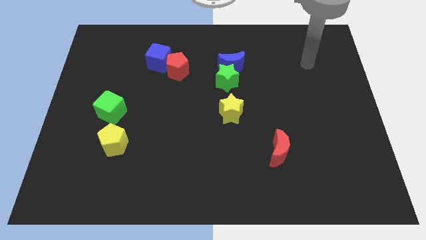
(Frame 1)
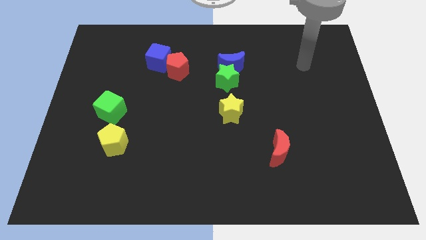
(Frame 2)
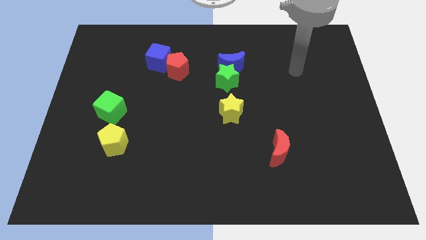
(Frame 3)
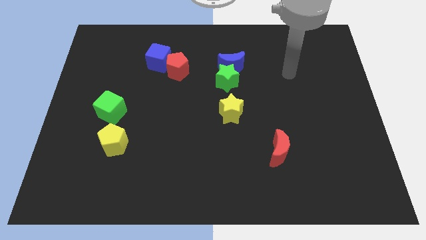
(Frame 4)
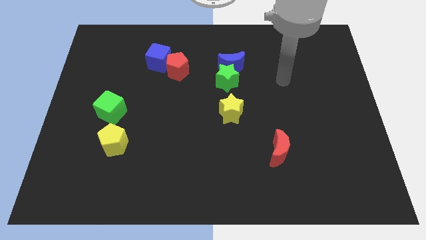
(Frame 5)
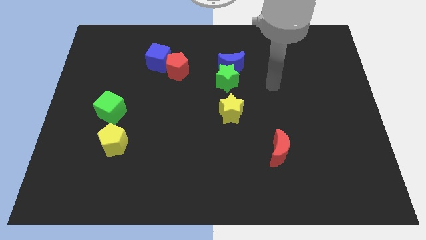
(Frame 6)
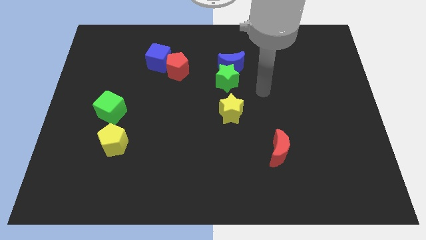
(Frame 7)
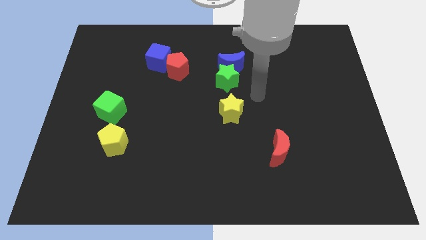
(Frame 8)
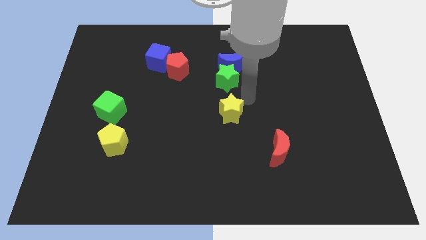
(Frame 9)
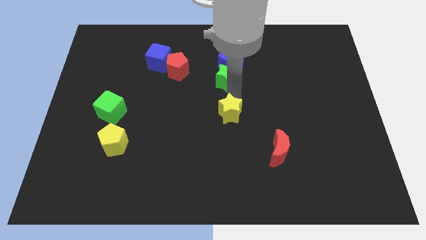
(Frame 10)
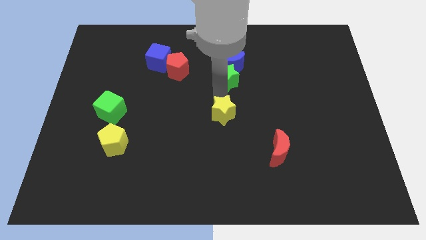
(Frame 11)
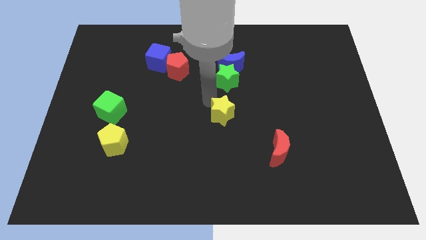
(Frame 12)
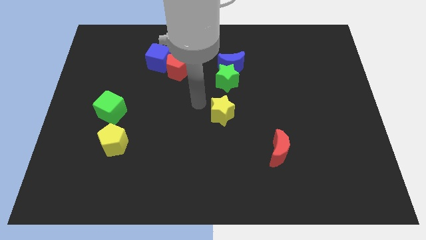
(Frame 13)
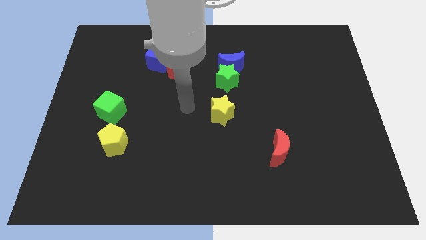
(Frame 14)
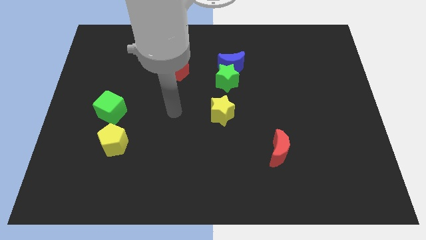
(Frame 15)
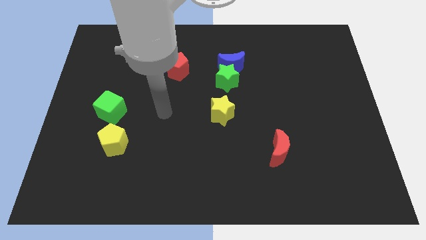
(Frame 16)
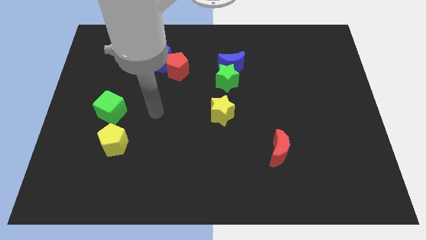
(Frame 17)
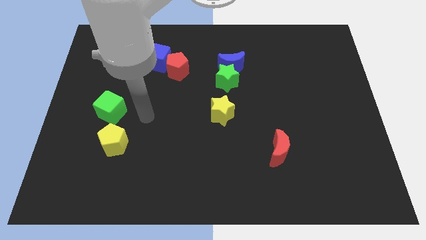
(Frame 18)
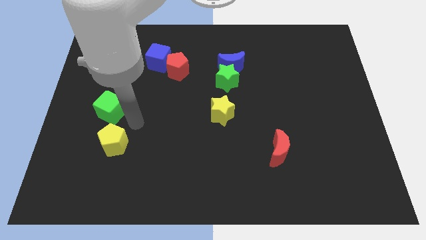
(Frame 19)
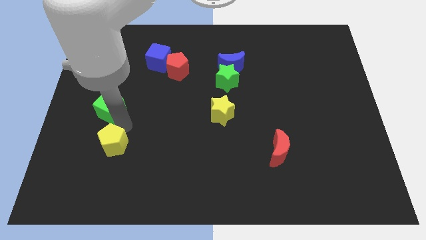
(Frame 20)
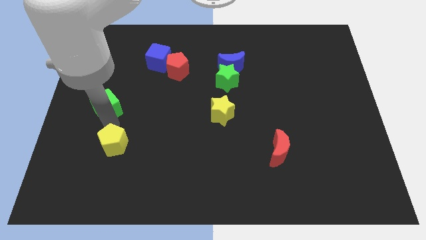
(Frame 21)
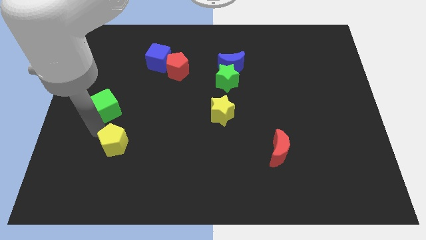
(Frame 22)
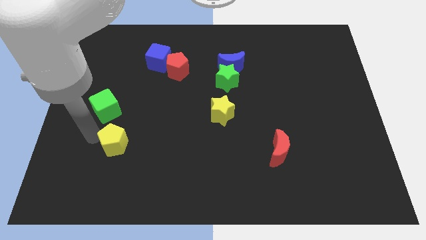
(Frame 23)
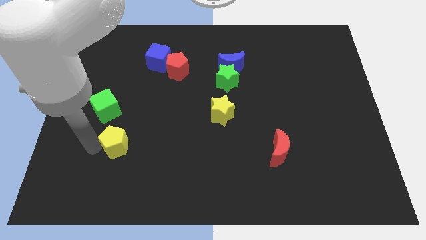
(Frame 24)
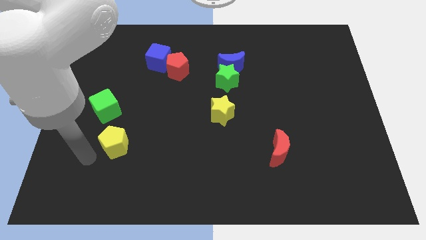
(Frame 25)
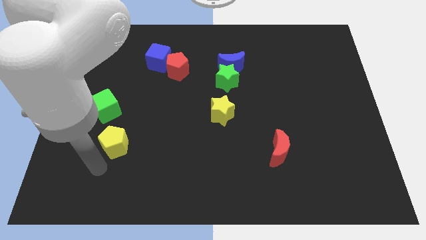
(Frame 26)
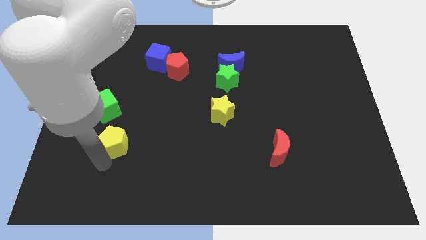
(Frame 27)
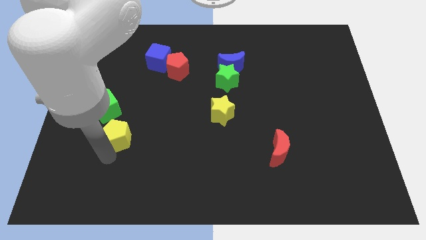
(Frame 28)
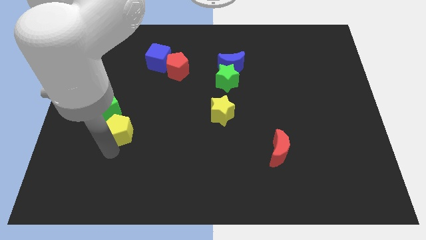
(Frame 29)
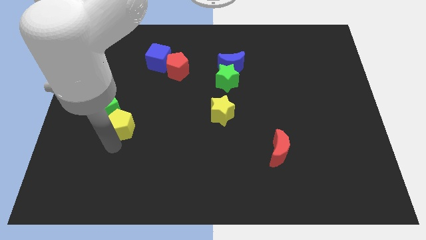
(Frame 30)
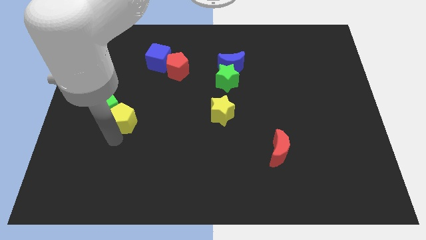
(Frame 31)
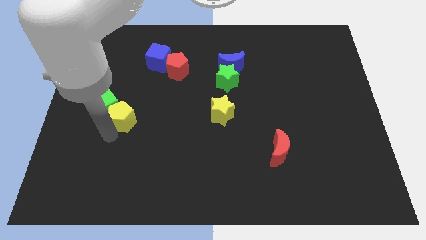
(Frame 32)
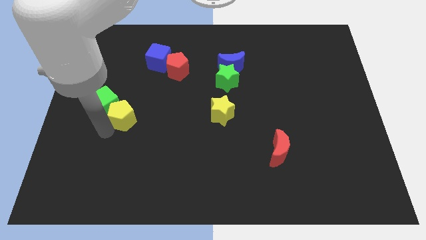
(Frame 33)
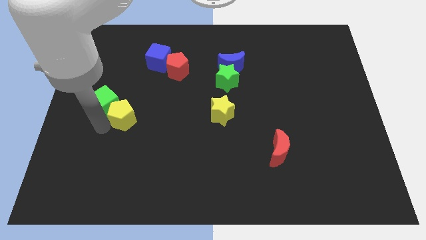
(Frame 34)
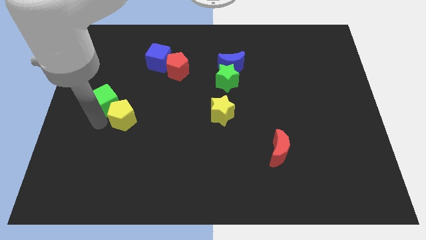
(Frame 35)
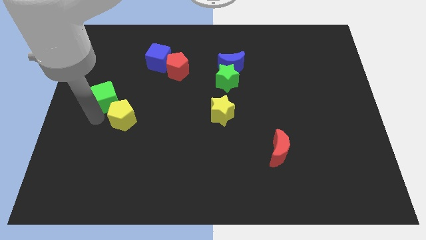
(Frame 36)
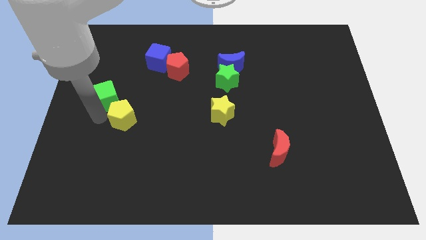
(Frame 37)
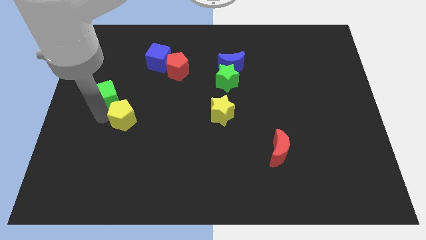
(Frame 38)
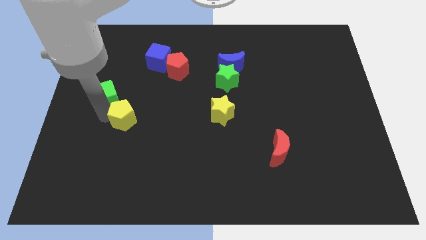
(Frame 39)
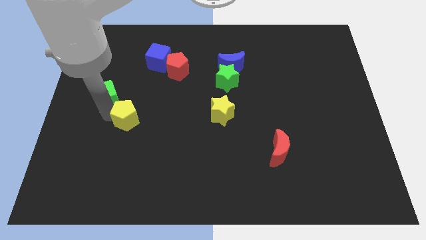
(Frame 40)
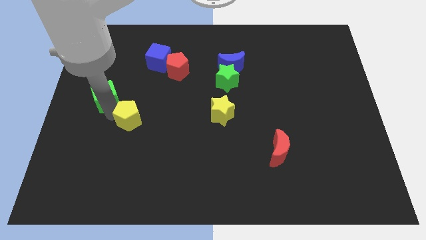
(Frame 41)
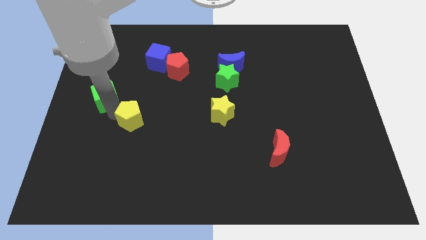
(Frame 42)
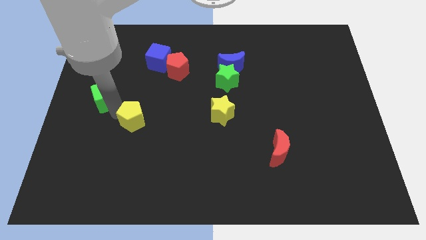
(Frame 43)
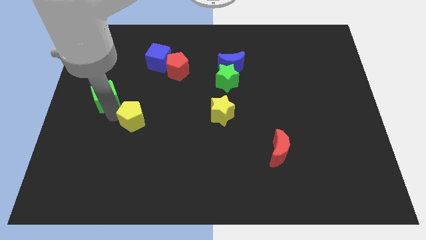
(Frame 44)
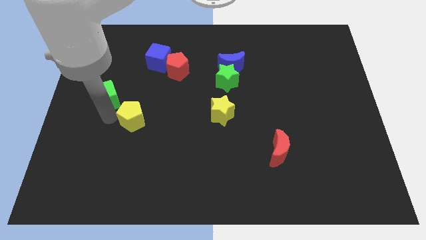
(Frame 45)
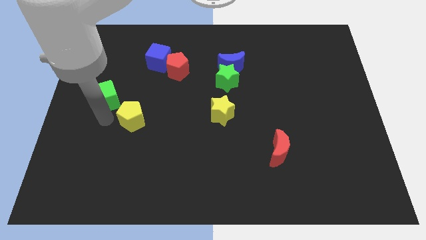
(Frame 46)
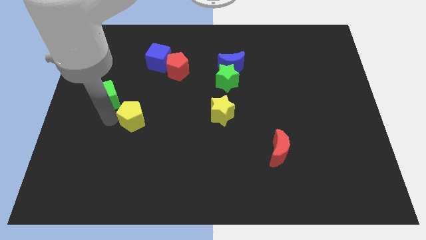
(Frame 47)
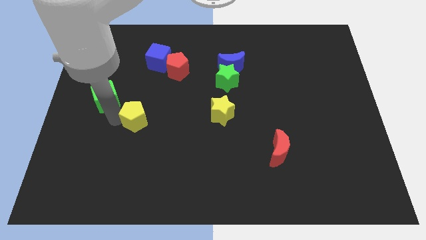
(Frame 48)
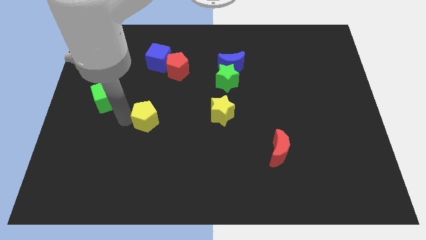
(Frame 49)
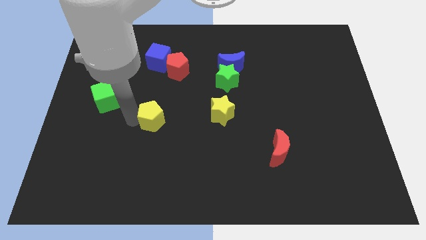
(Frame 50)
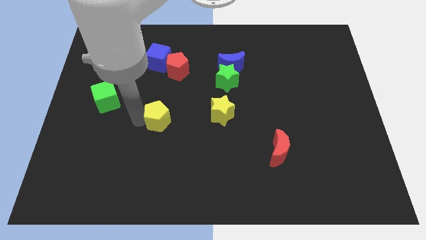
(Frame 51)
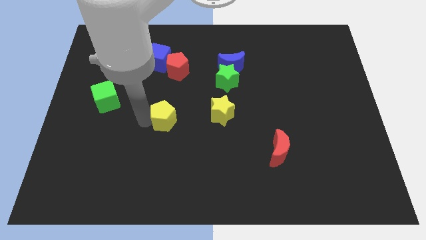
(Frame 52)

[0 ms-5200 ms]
put the yellow pentagon to the center
